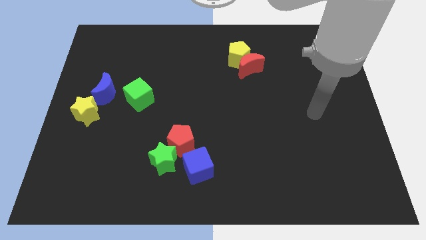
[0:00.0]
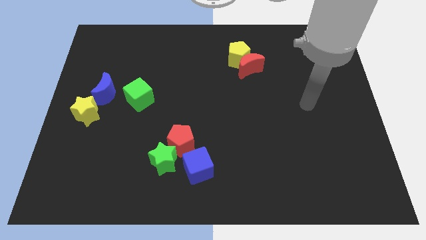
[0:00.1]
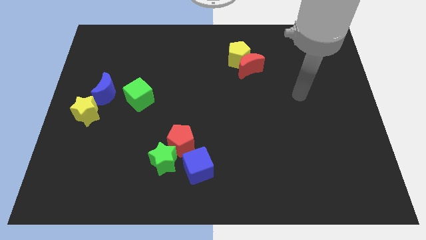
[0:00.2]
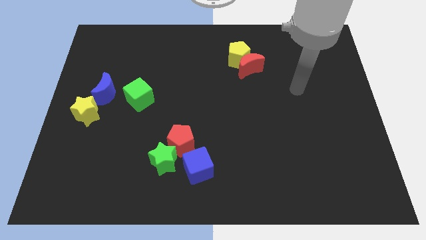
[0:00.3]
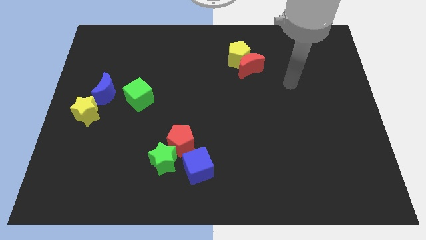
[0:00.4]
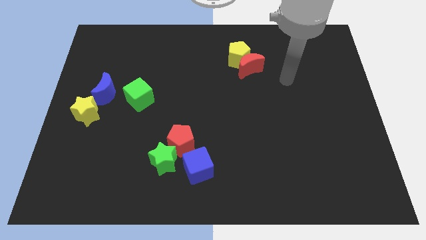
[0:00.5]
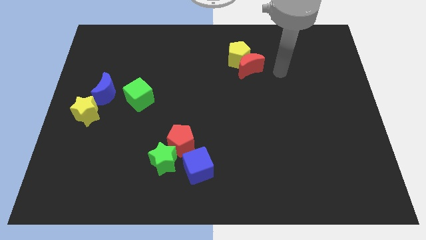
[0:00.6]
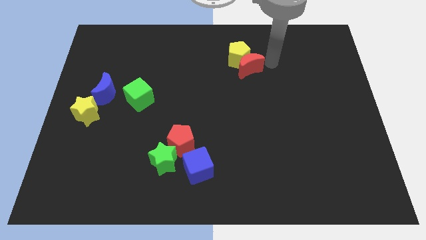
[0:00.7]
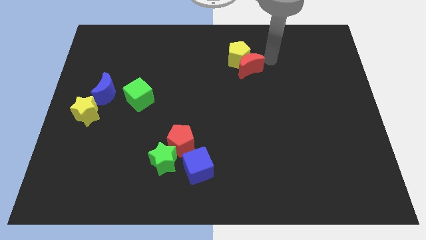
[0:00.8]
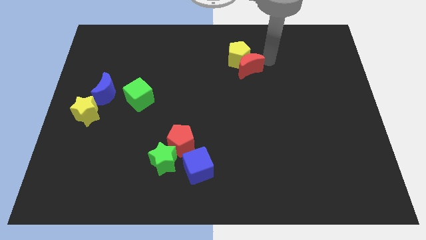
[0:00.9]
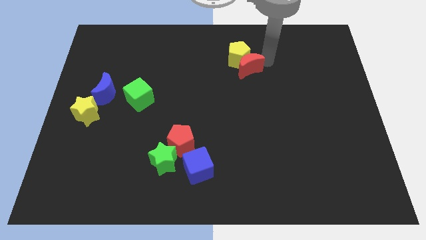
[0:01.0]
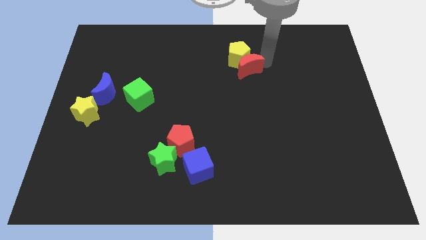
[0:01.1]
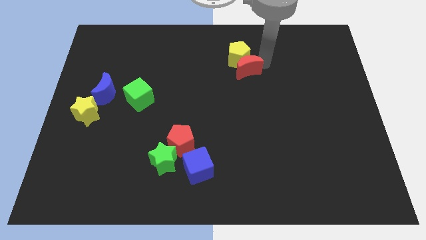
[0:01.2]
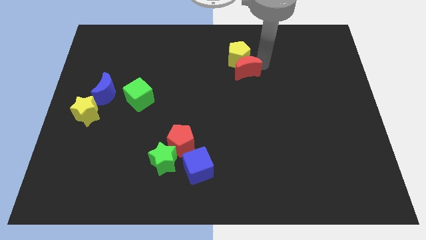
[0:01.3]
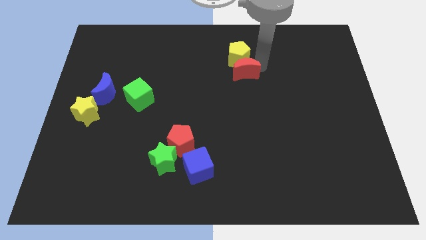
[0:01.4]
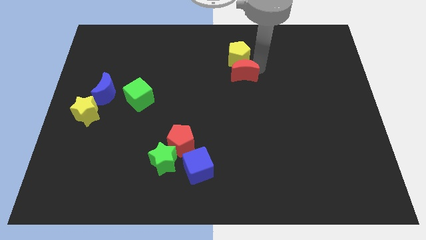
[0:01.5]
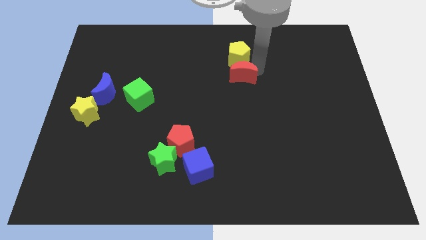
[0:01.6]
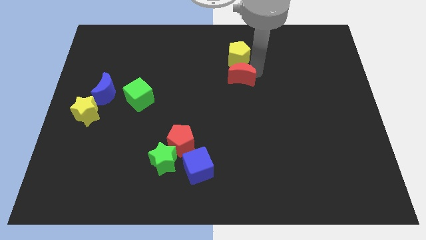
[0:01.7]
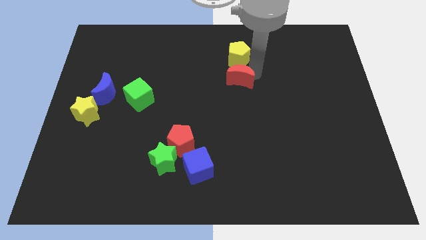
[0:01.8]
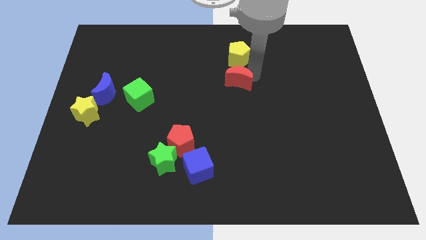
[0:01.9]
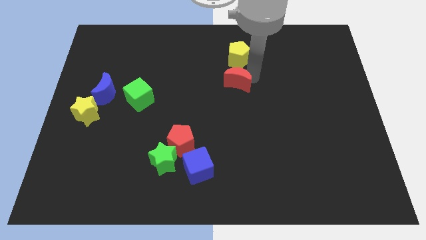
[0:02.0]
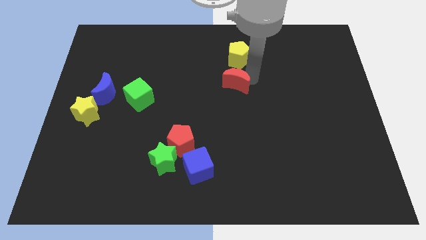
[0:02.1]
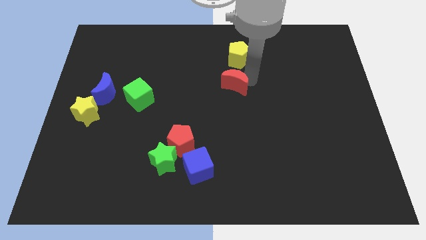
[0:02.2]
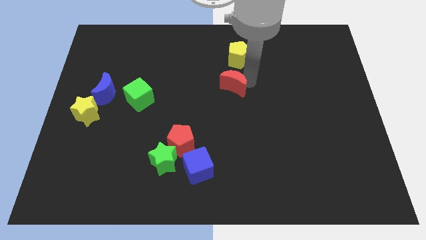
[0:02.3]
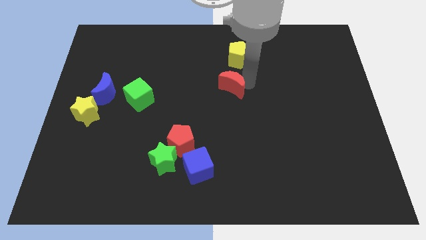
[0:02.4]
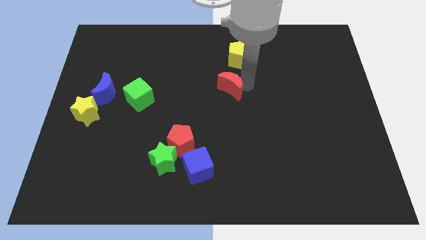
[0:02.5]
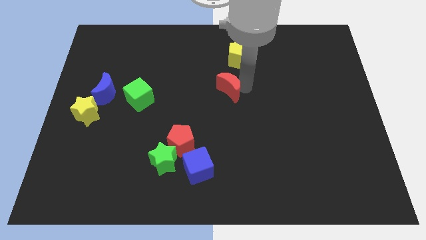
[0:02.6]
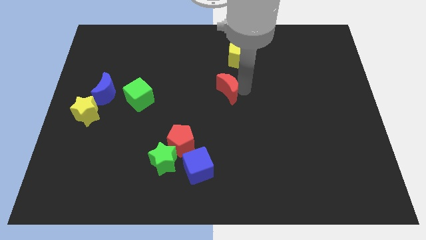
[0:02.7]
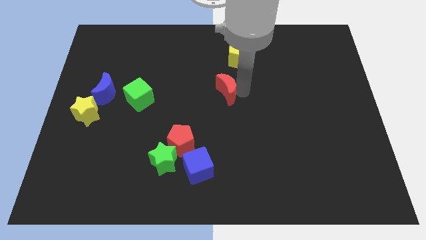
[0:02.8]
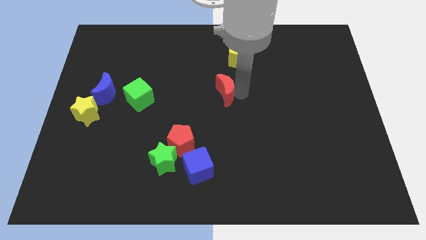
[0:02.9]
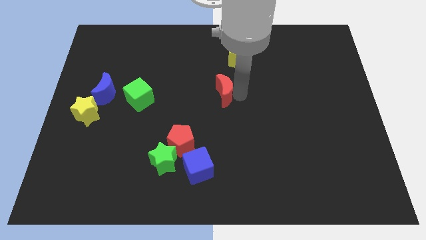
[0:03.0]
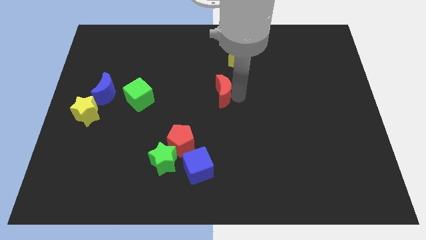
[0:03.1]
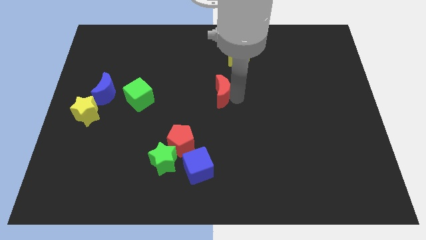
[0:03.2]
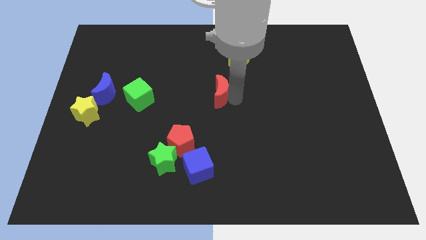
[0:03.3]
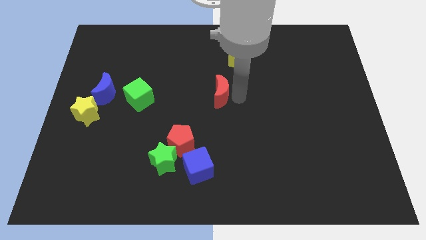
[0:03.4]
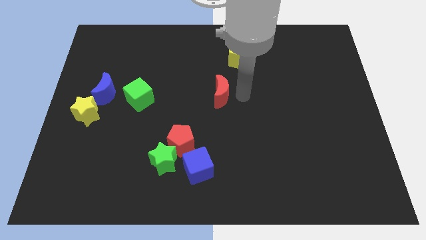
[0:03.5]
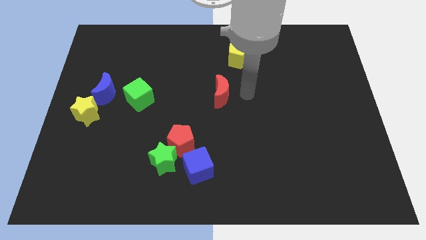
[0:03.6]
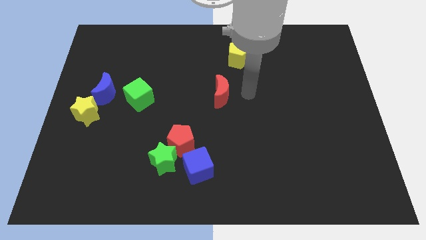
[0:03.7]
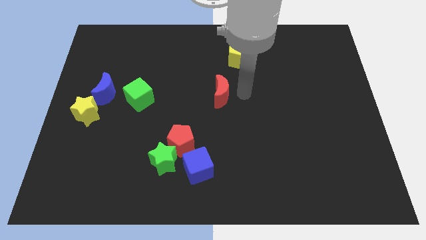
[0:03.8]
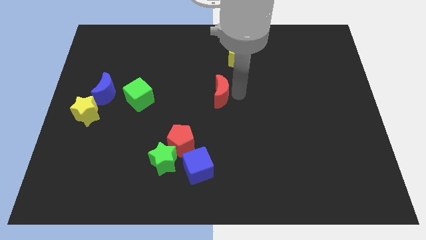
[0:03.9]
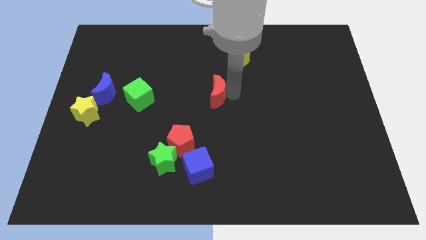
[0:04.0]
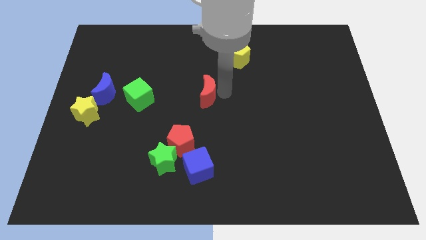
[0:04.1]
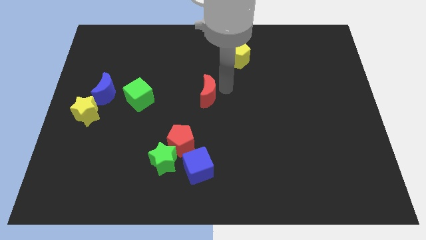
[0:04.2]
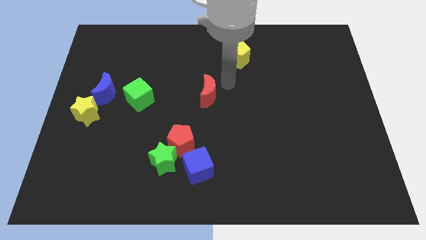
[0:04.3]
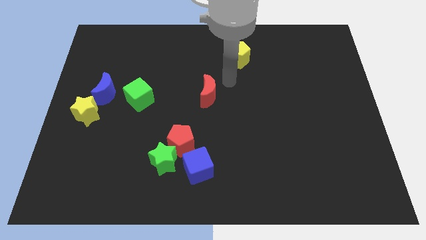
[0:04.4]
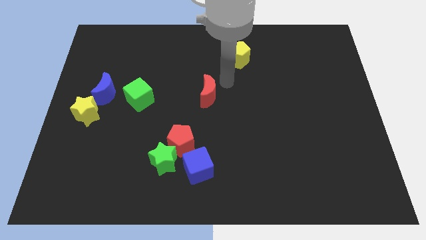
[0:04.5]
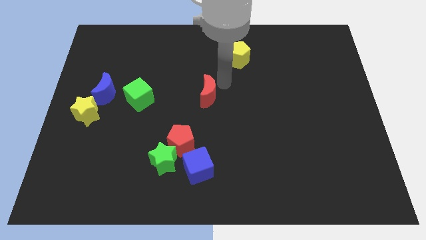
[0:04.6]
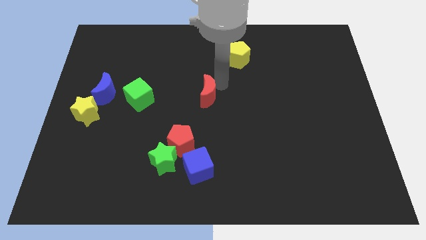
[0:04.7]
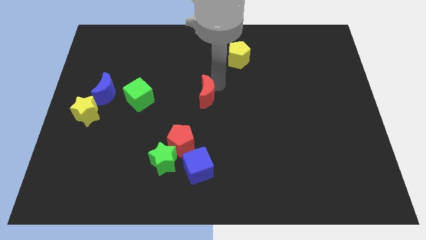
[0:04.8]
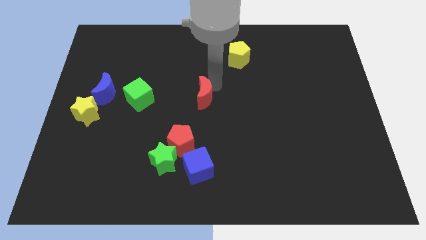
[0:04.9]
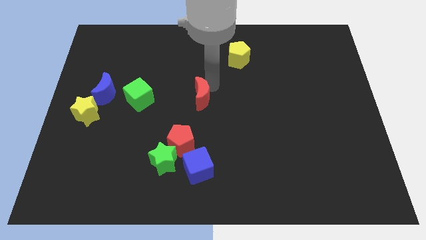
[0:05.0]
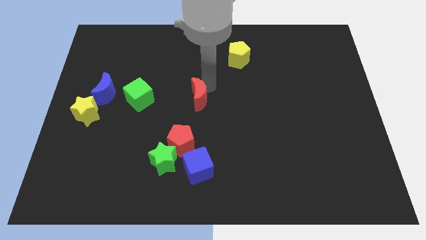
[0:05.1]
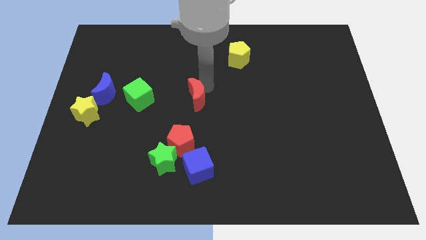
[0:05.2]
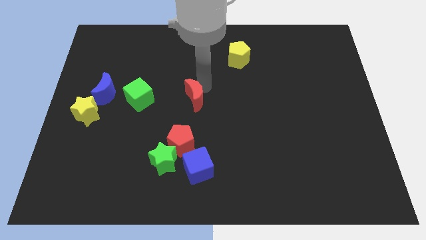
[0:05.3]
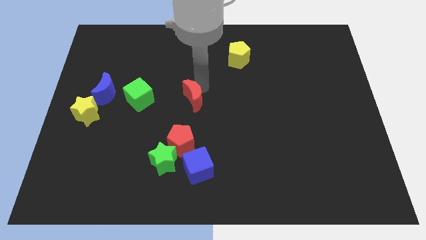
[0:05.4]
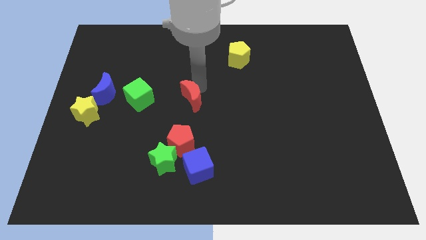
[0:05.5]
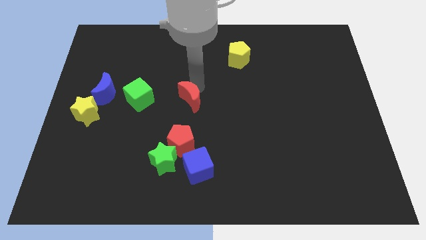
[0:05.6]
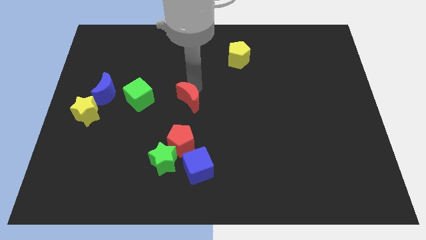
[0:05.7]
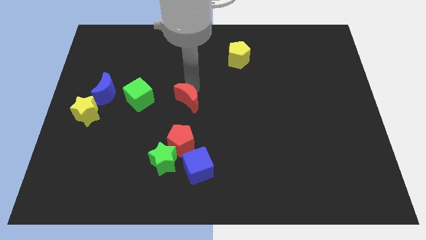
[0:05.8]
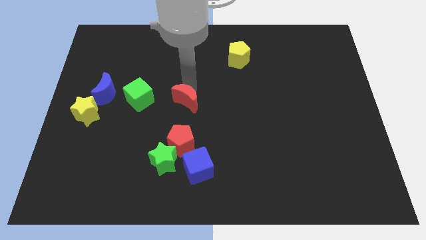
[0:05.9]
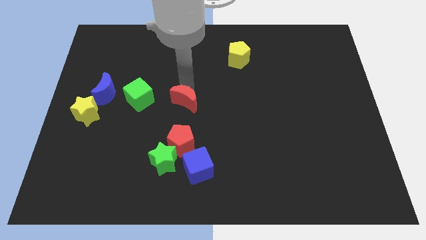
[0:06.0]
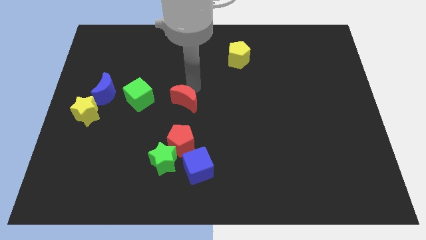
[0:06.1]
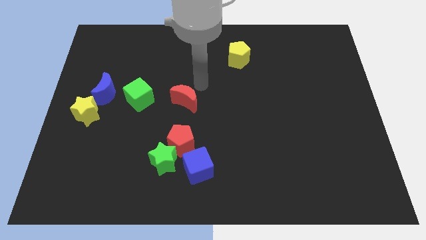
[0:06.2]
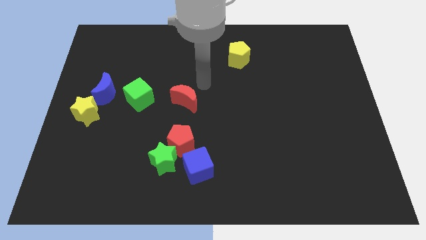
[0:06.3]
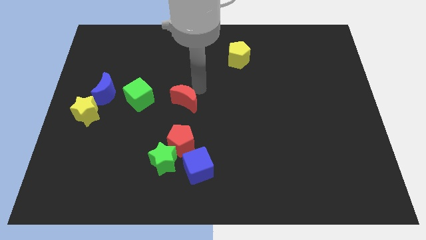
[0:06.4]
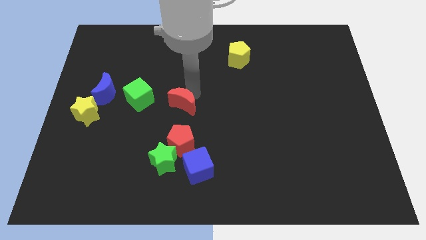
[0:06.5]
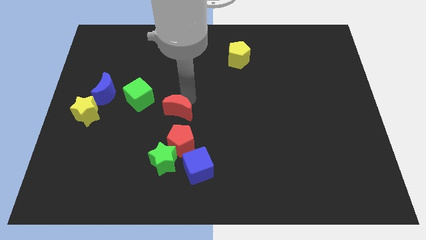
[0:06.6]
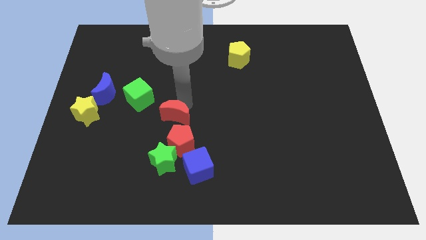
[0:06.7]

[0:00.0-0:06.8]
push the red moon to the top left of the red pentagon
